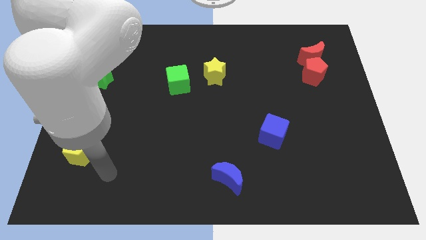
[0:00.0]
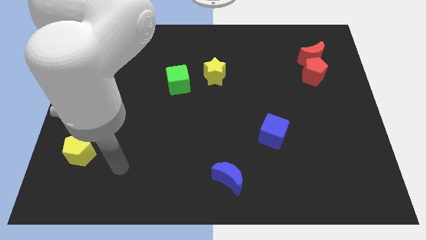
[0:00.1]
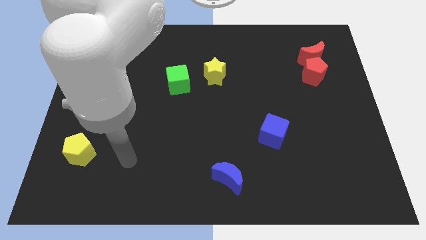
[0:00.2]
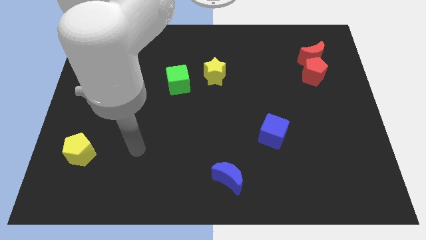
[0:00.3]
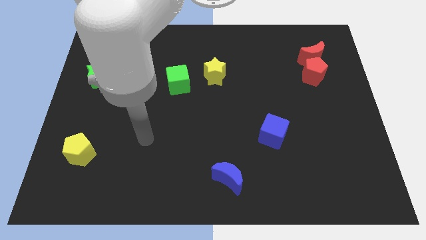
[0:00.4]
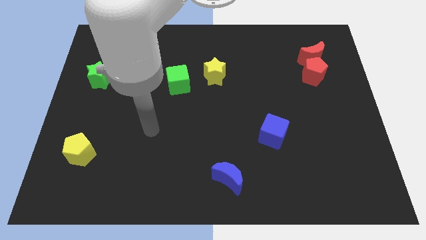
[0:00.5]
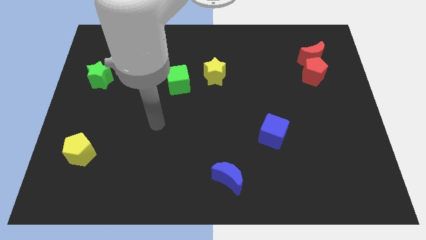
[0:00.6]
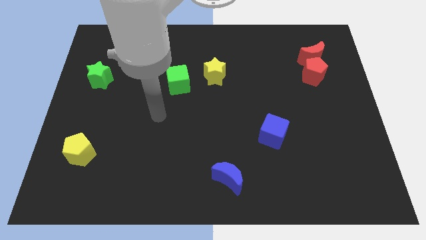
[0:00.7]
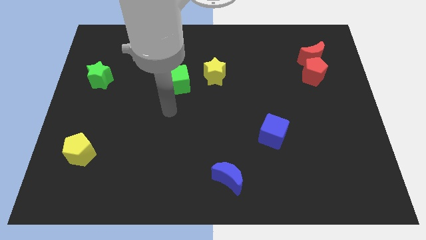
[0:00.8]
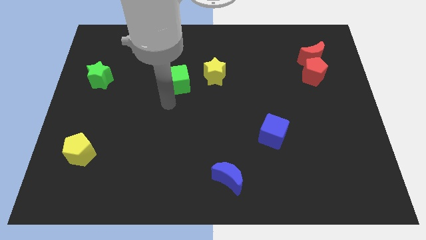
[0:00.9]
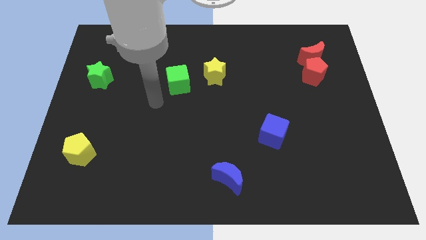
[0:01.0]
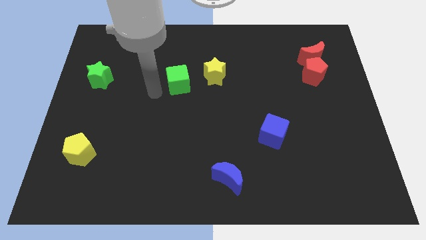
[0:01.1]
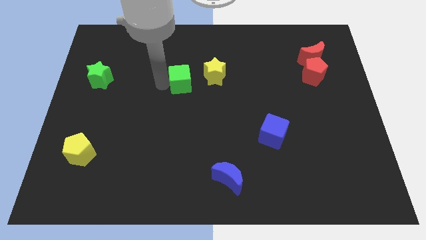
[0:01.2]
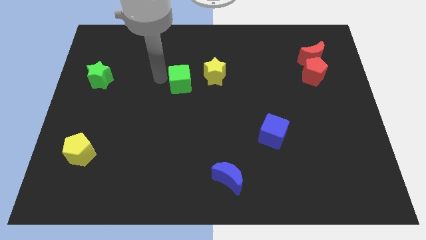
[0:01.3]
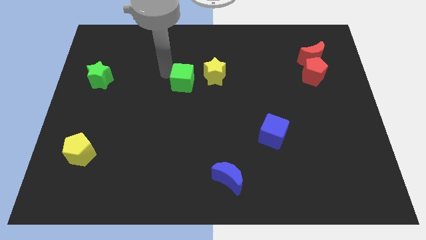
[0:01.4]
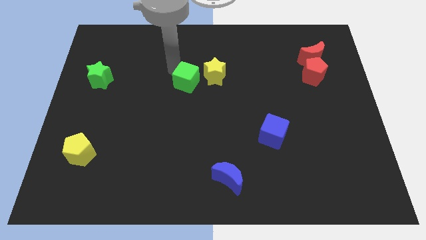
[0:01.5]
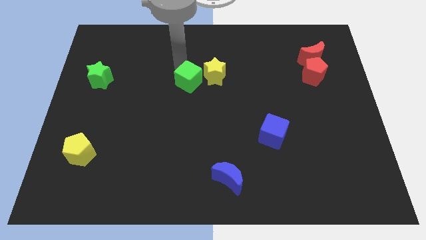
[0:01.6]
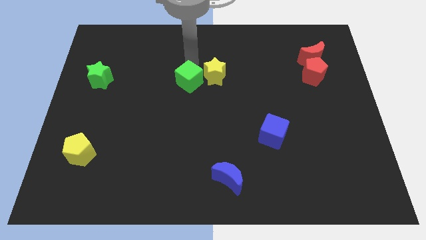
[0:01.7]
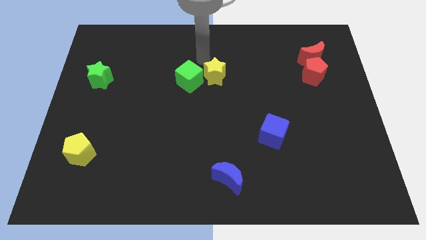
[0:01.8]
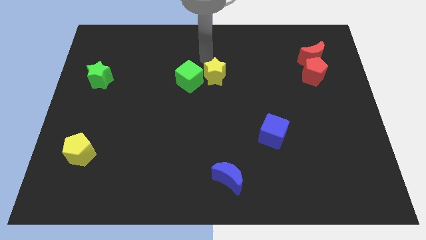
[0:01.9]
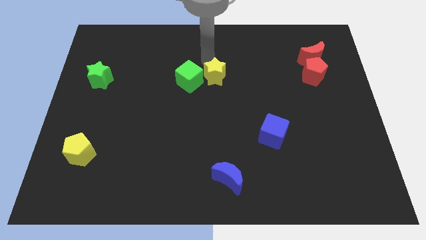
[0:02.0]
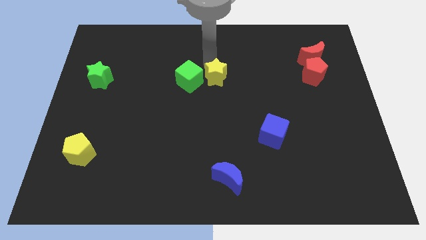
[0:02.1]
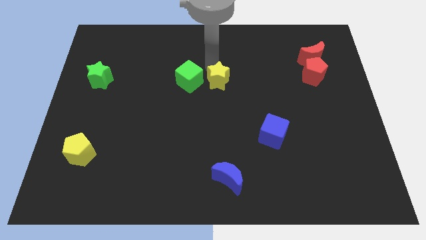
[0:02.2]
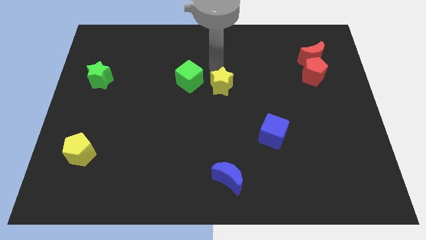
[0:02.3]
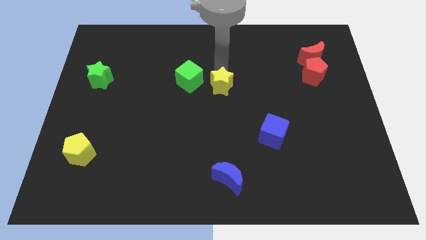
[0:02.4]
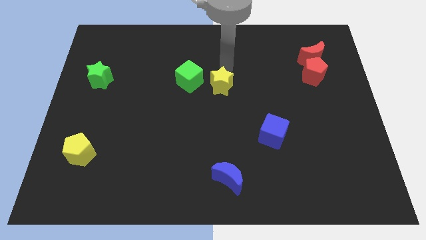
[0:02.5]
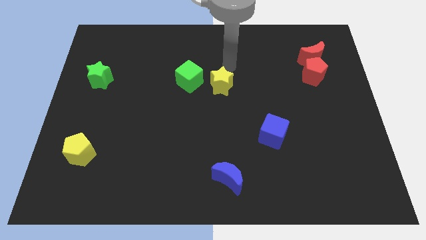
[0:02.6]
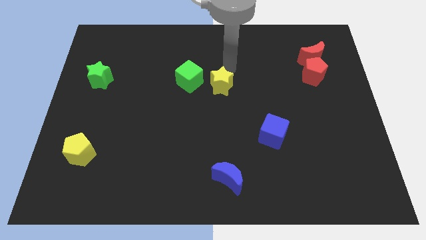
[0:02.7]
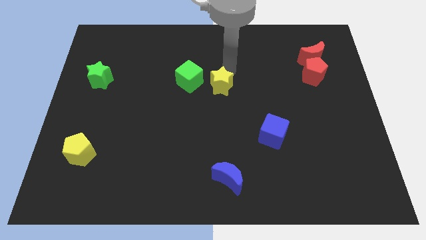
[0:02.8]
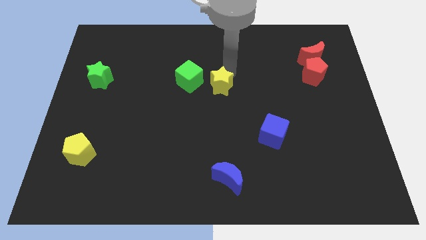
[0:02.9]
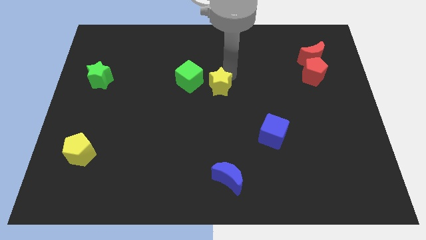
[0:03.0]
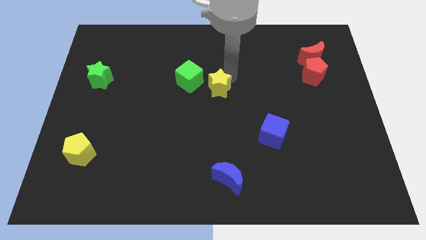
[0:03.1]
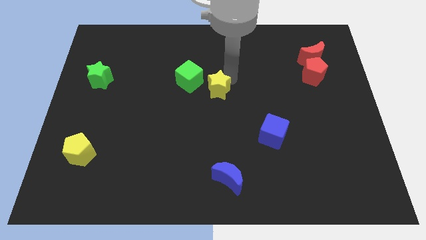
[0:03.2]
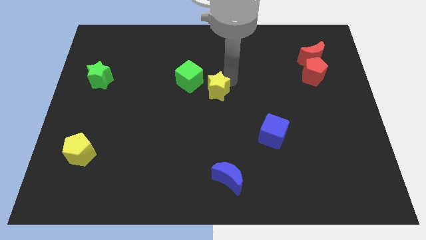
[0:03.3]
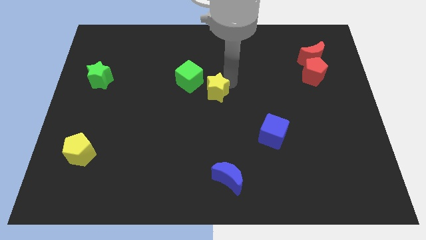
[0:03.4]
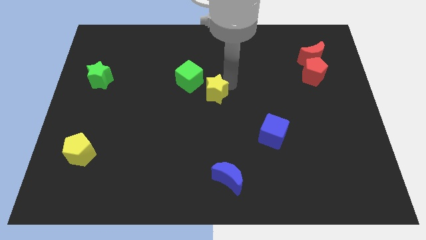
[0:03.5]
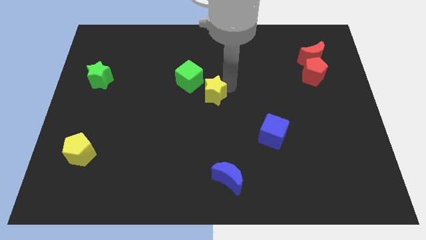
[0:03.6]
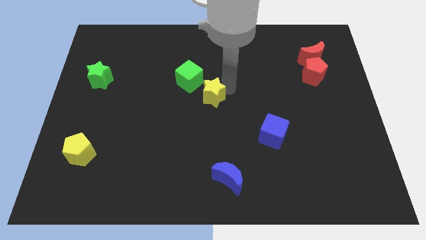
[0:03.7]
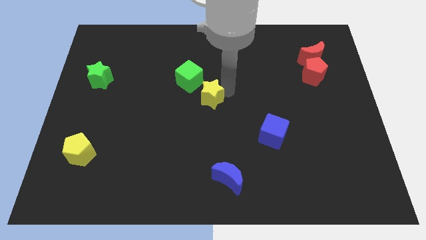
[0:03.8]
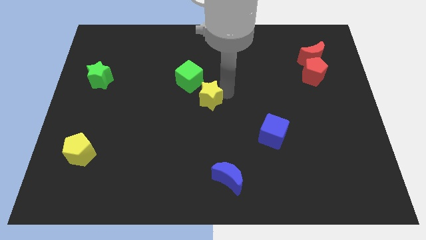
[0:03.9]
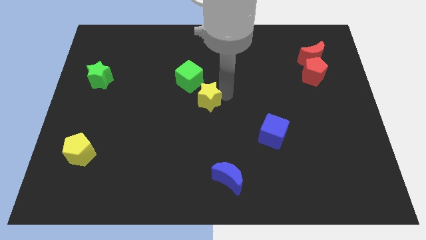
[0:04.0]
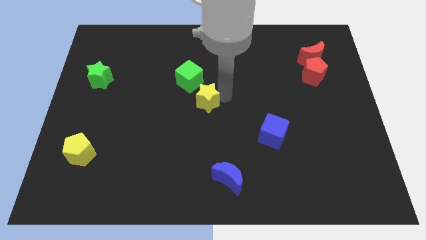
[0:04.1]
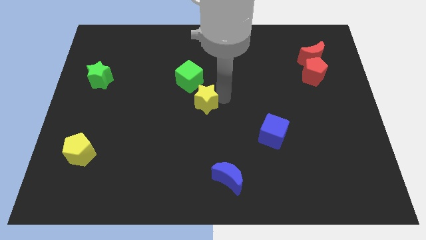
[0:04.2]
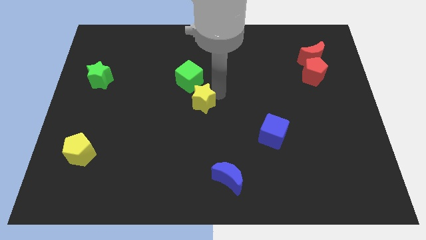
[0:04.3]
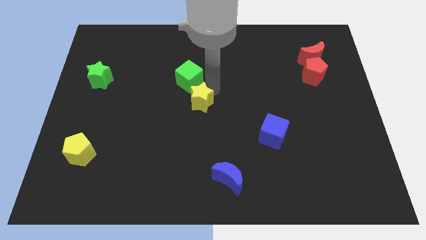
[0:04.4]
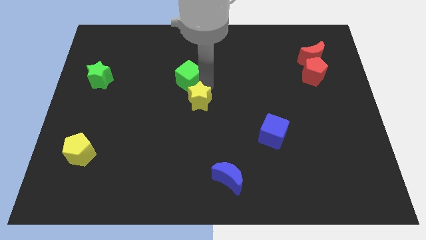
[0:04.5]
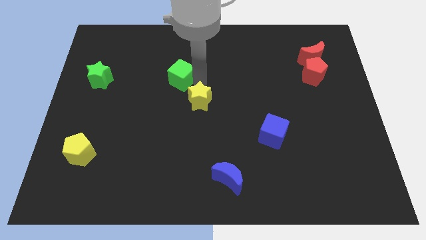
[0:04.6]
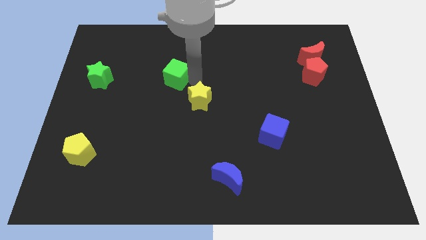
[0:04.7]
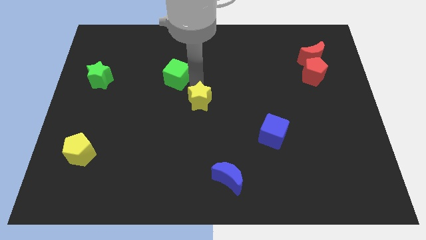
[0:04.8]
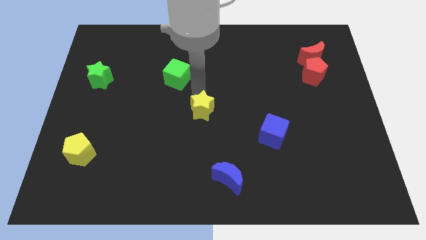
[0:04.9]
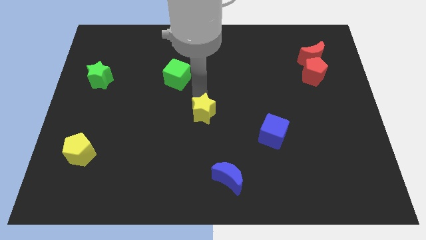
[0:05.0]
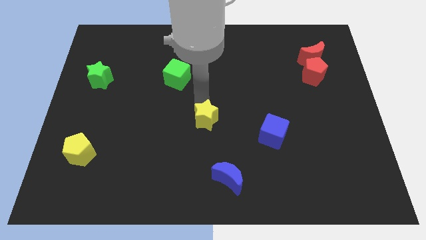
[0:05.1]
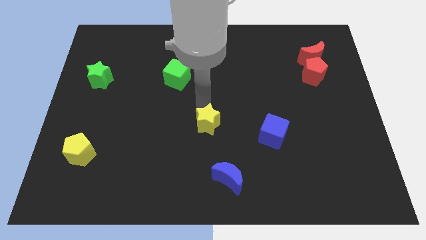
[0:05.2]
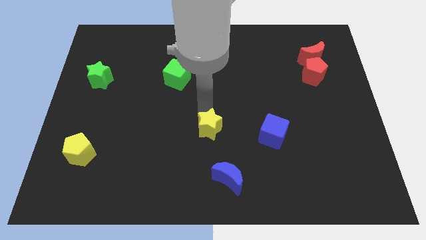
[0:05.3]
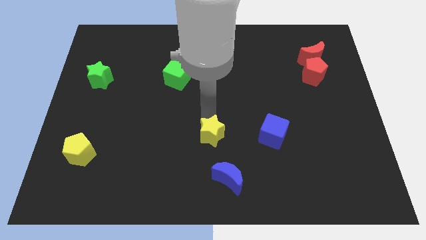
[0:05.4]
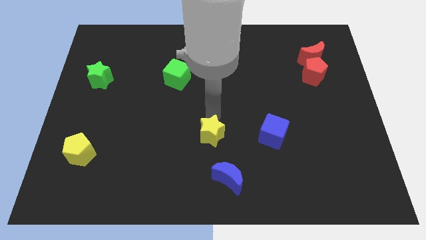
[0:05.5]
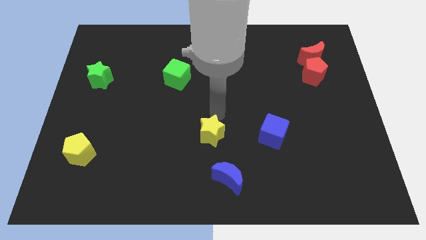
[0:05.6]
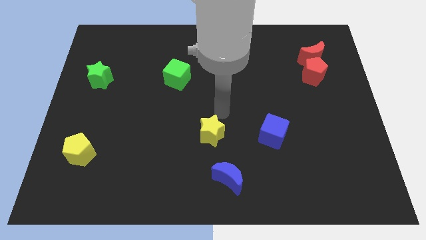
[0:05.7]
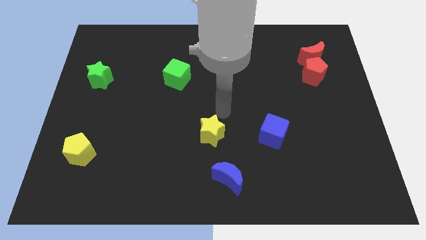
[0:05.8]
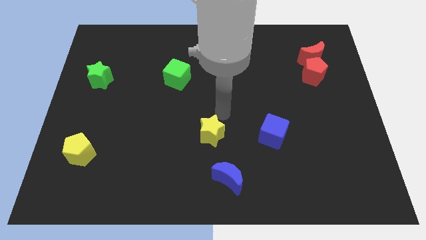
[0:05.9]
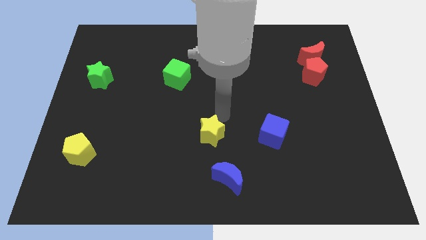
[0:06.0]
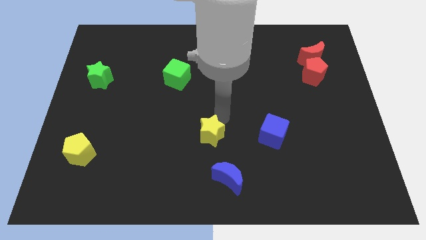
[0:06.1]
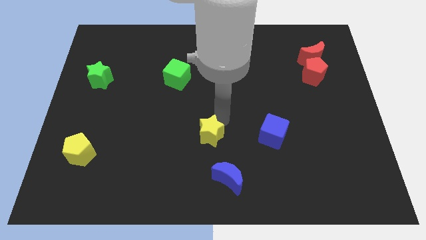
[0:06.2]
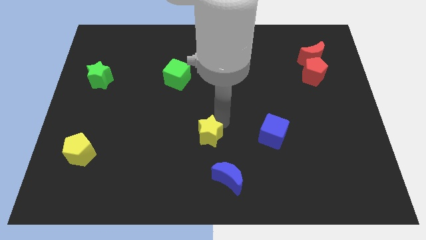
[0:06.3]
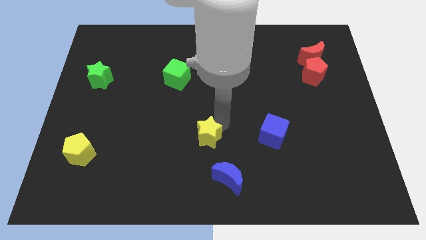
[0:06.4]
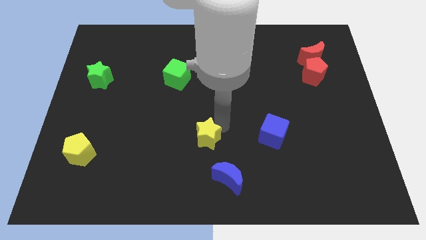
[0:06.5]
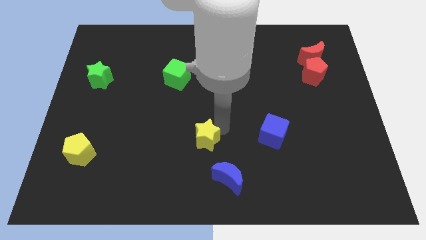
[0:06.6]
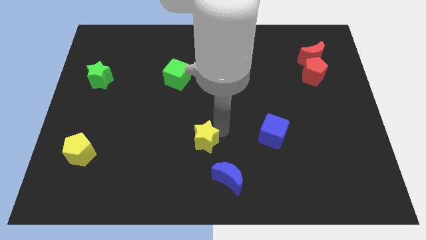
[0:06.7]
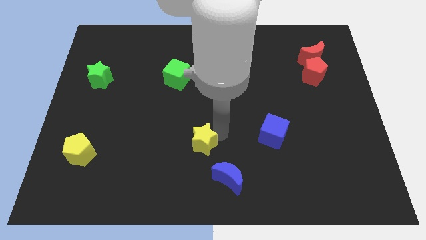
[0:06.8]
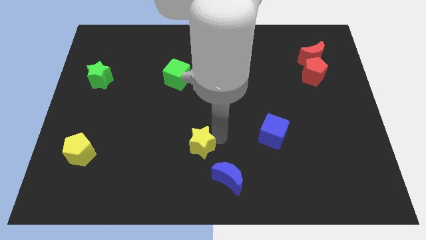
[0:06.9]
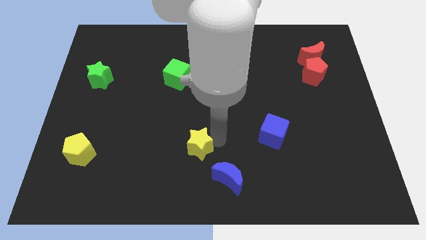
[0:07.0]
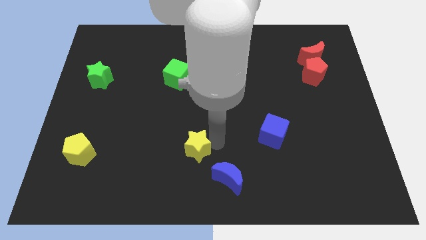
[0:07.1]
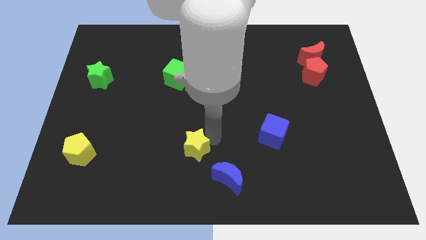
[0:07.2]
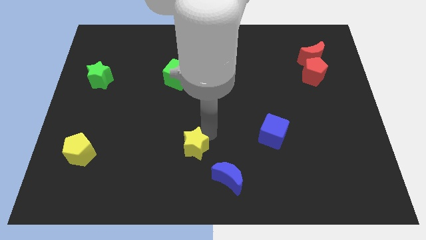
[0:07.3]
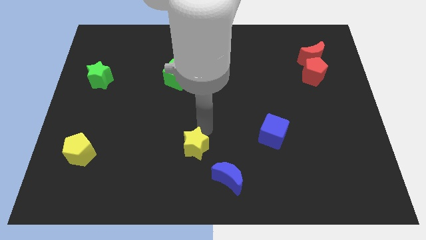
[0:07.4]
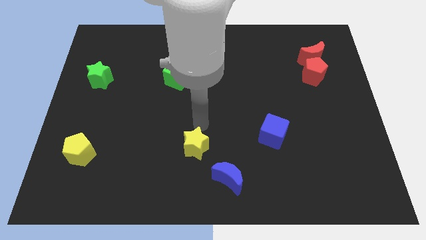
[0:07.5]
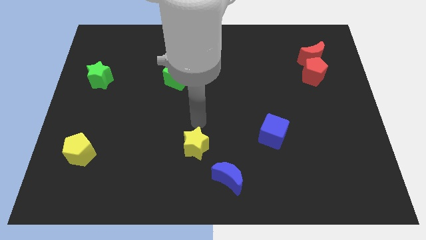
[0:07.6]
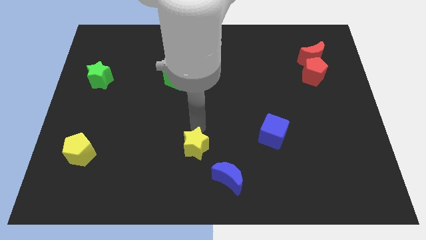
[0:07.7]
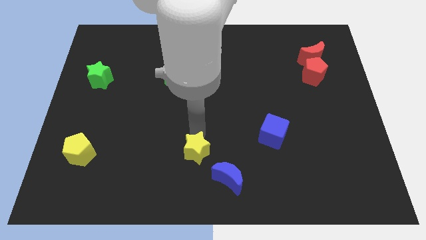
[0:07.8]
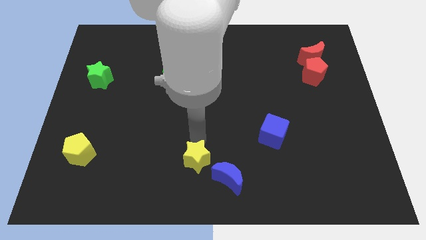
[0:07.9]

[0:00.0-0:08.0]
put the yellow star to the bottom
